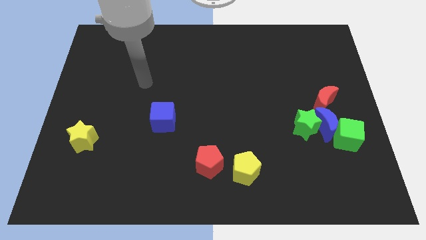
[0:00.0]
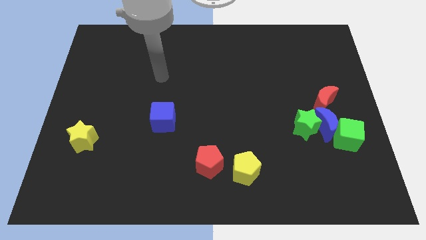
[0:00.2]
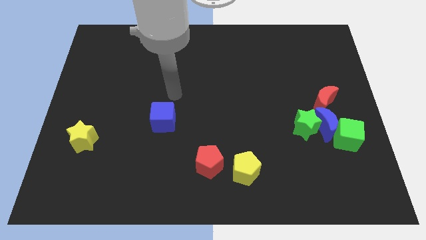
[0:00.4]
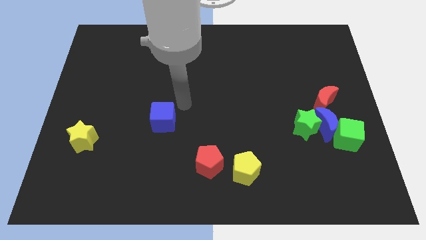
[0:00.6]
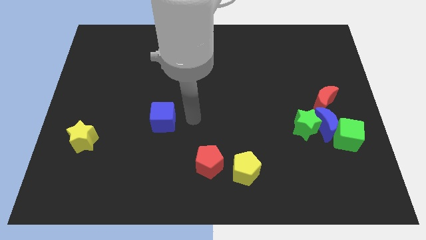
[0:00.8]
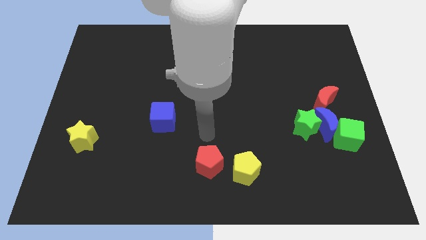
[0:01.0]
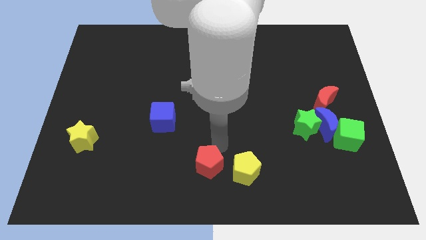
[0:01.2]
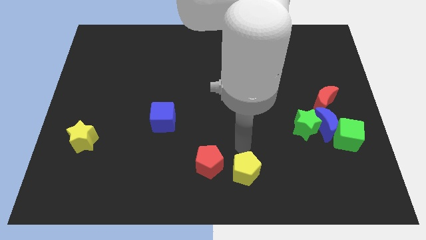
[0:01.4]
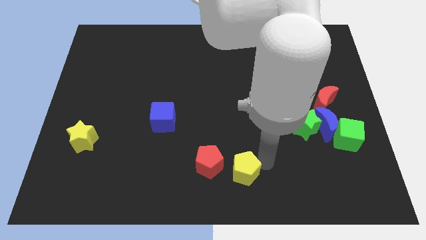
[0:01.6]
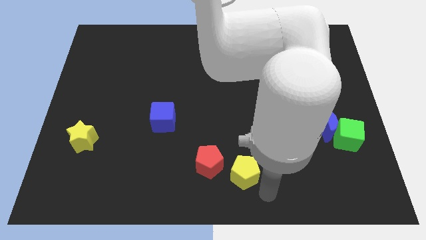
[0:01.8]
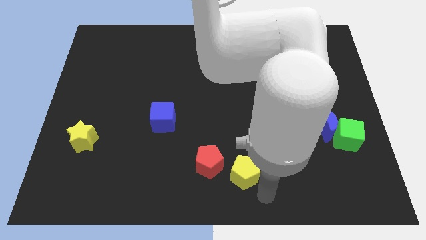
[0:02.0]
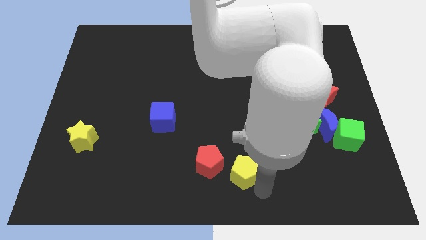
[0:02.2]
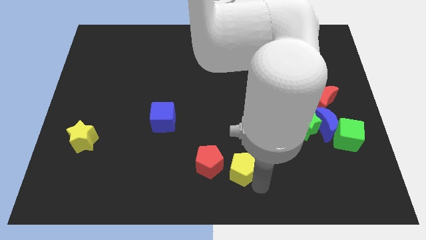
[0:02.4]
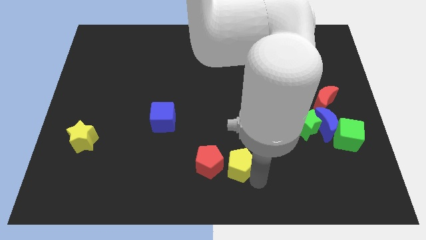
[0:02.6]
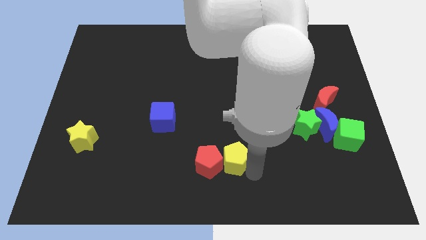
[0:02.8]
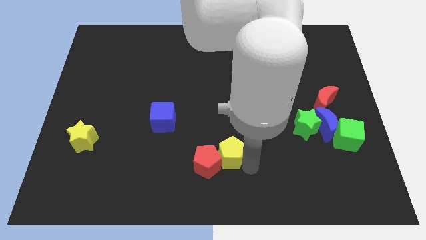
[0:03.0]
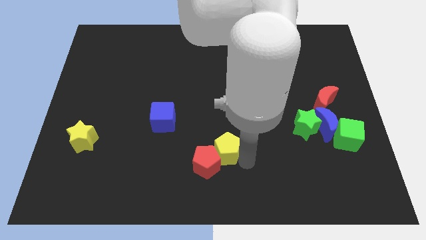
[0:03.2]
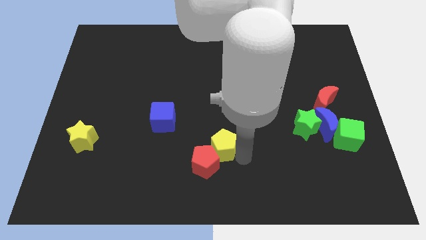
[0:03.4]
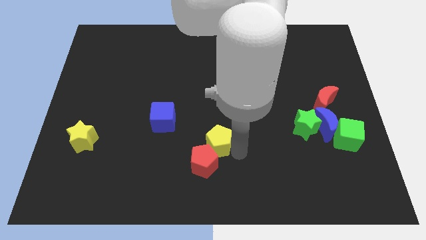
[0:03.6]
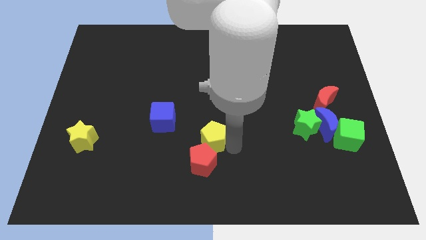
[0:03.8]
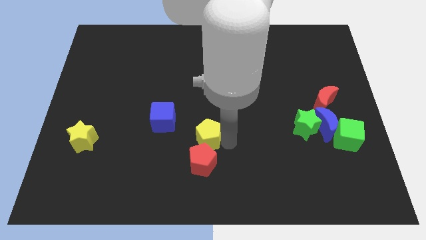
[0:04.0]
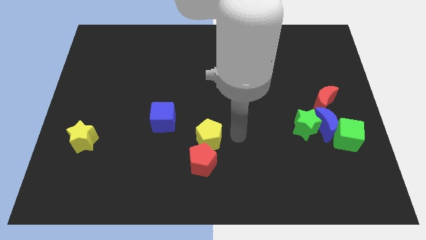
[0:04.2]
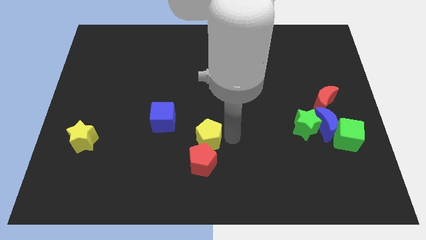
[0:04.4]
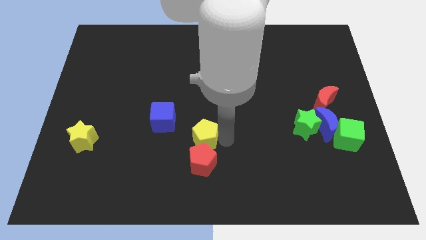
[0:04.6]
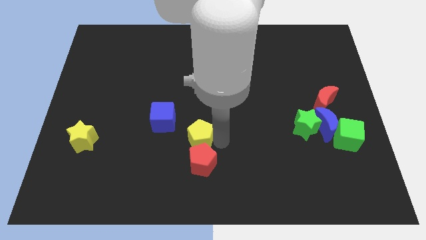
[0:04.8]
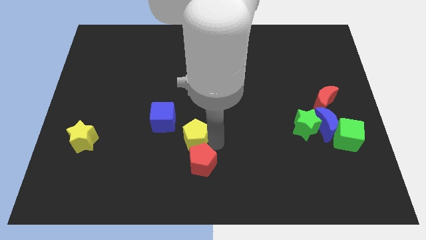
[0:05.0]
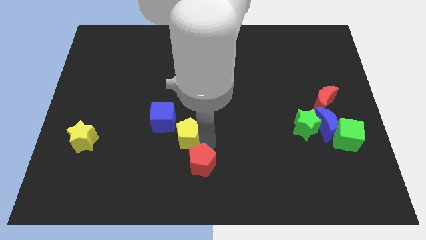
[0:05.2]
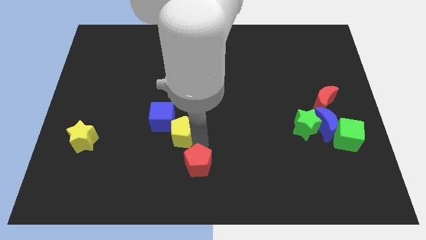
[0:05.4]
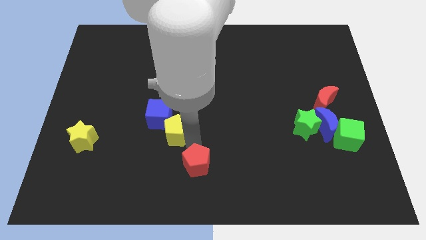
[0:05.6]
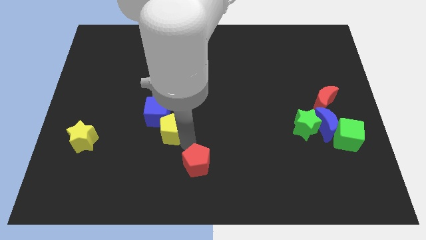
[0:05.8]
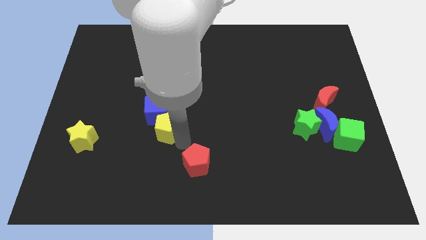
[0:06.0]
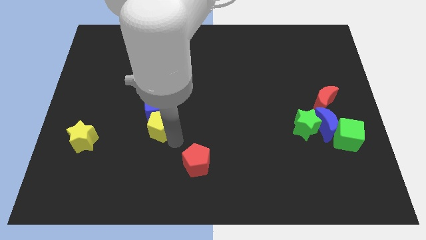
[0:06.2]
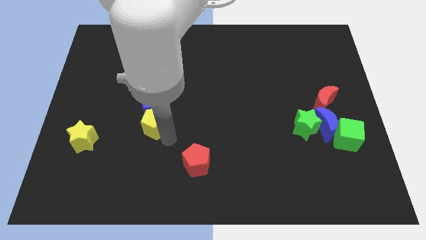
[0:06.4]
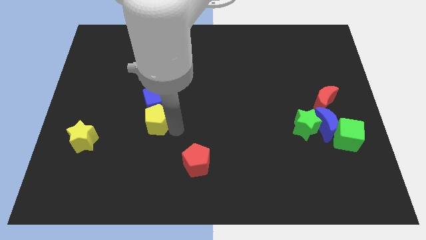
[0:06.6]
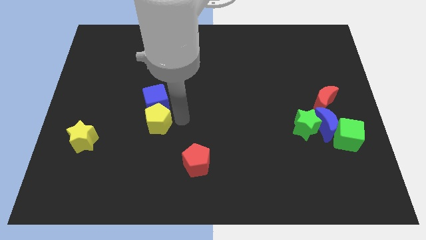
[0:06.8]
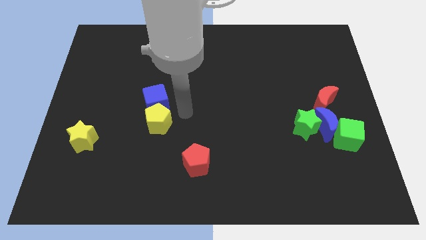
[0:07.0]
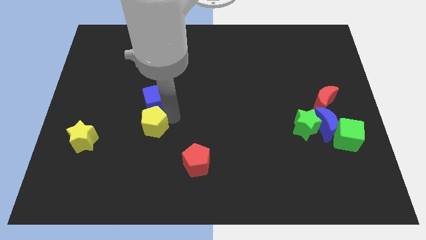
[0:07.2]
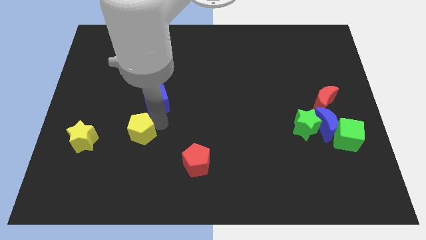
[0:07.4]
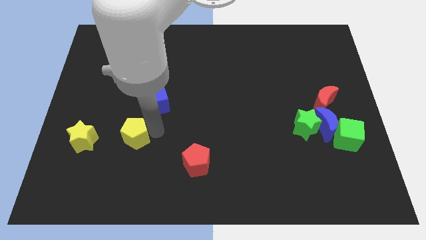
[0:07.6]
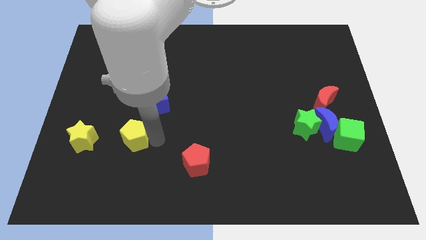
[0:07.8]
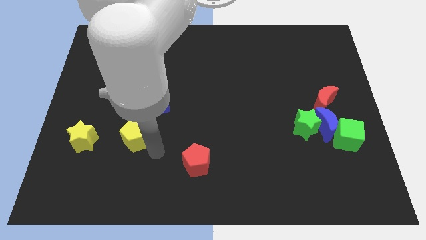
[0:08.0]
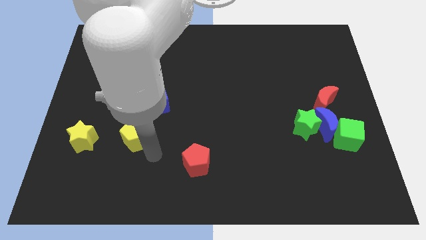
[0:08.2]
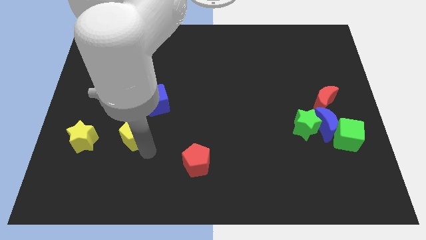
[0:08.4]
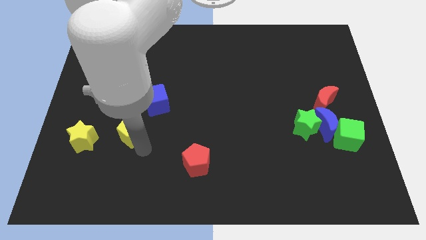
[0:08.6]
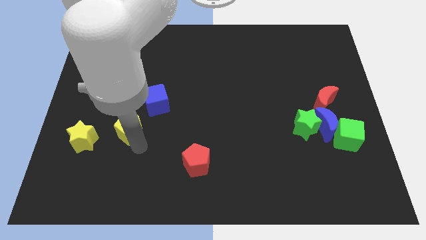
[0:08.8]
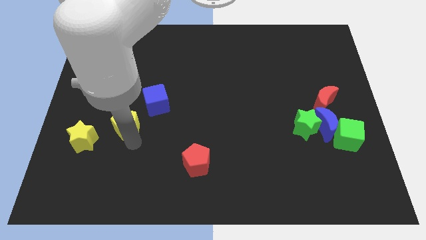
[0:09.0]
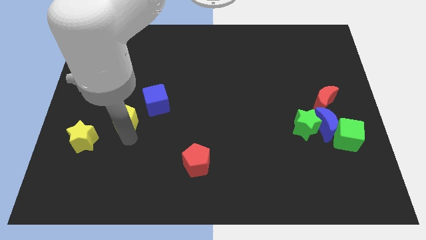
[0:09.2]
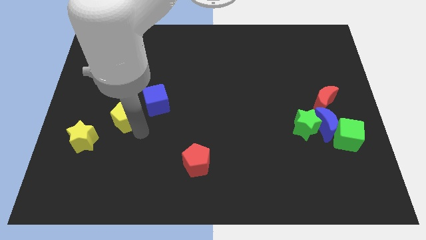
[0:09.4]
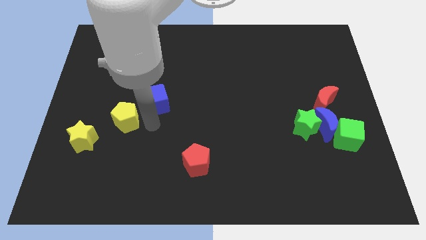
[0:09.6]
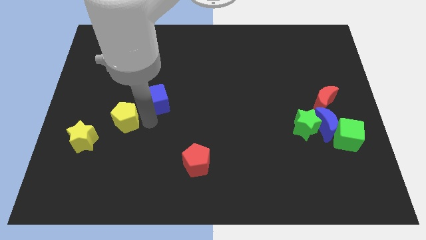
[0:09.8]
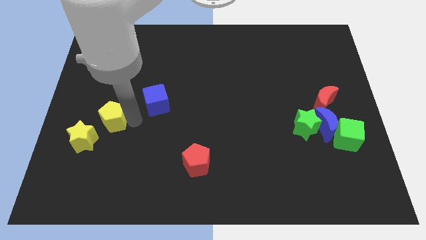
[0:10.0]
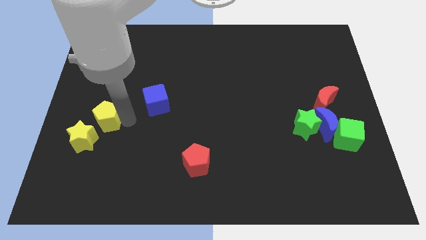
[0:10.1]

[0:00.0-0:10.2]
slide the yellow pentagon to the top of the yellow star

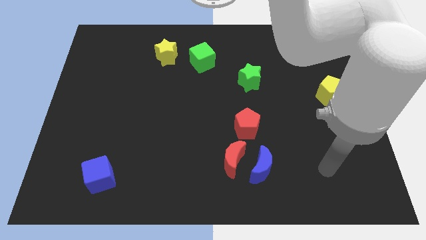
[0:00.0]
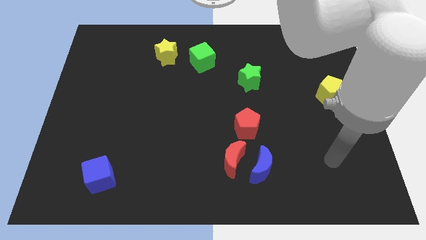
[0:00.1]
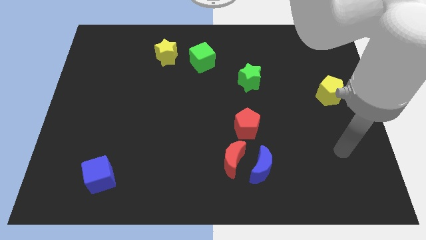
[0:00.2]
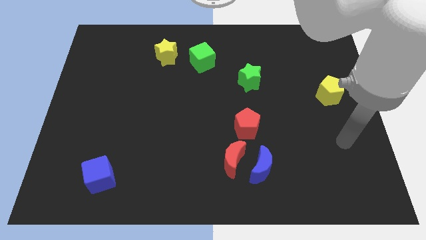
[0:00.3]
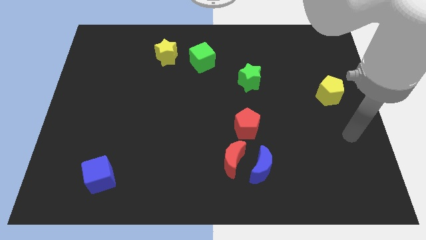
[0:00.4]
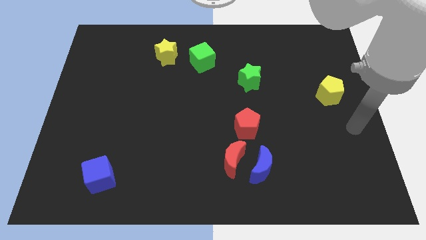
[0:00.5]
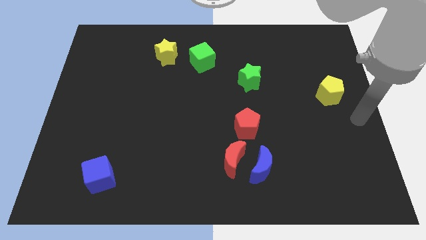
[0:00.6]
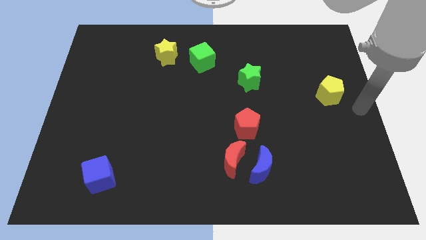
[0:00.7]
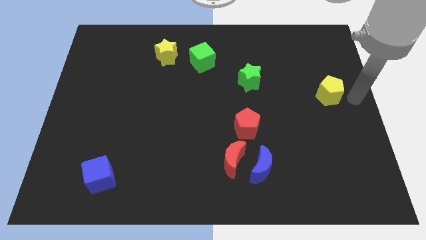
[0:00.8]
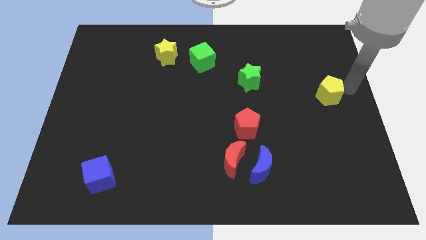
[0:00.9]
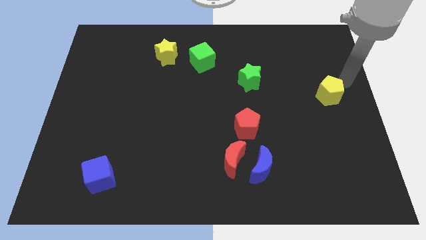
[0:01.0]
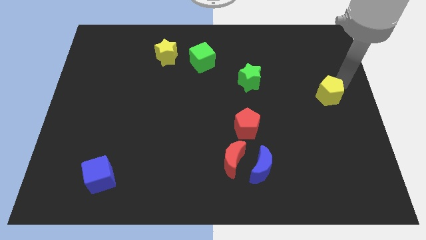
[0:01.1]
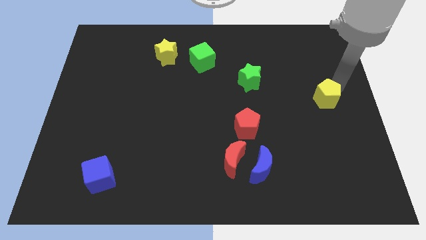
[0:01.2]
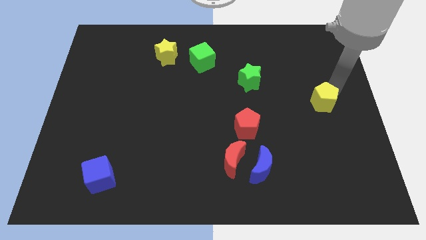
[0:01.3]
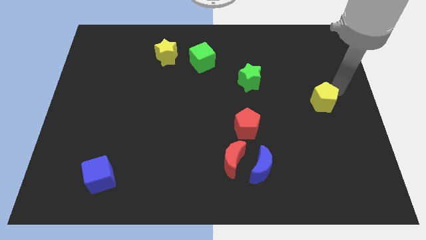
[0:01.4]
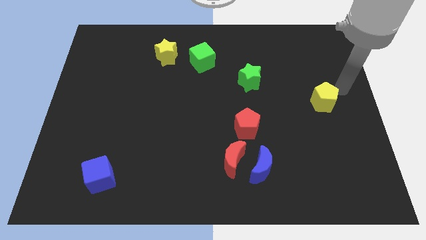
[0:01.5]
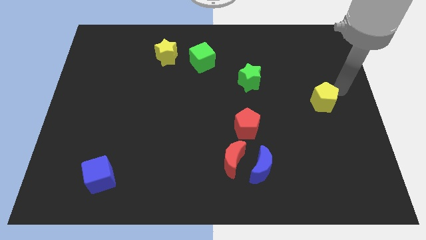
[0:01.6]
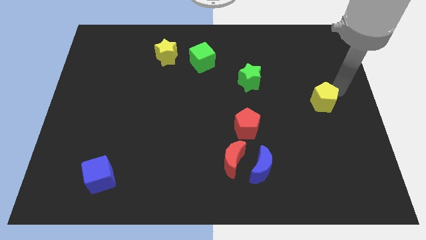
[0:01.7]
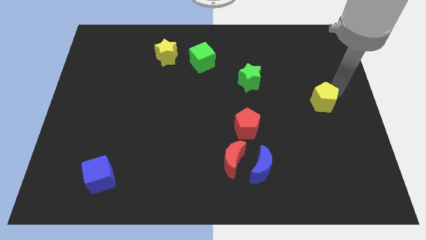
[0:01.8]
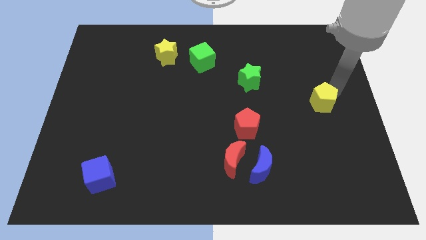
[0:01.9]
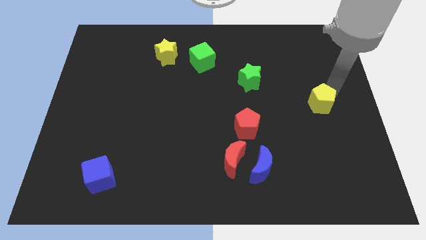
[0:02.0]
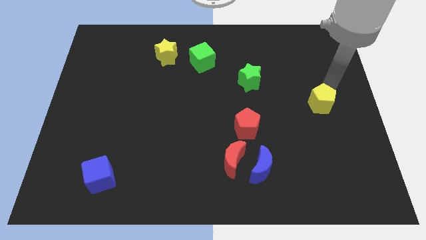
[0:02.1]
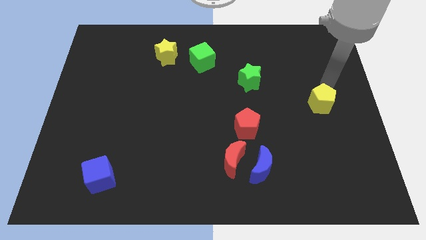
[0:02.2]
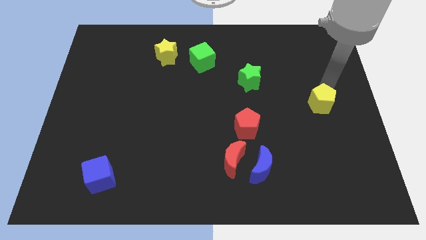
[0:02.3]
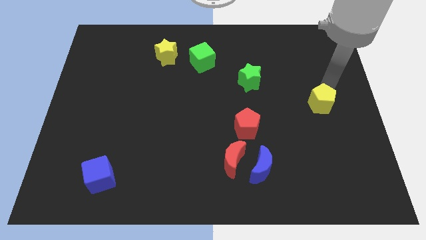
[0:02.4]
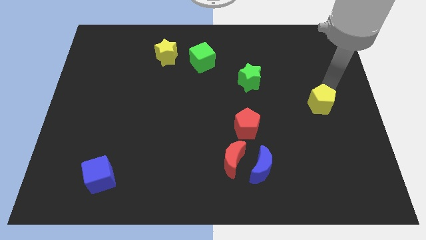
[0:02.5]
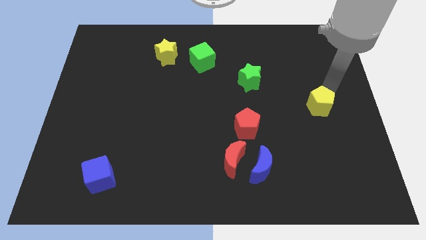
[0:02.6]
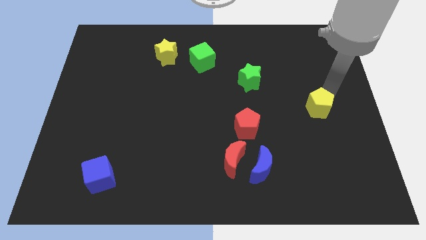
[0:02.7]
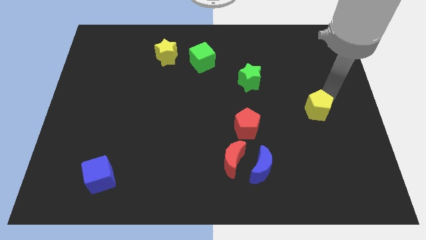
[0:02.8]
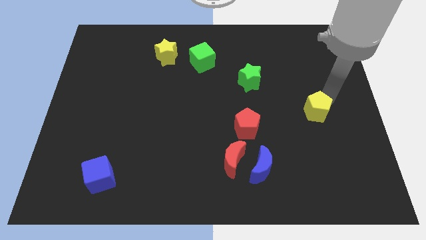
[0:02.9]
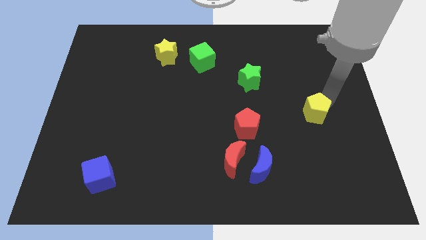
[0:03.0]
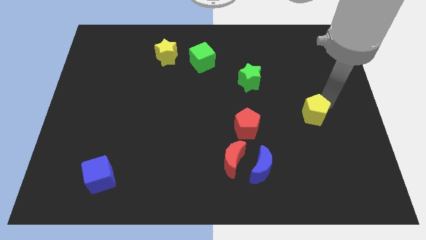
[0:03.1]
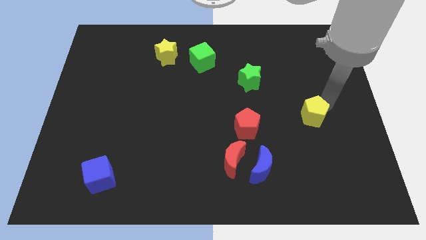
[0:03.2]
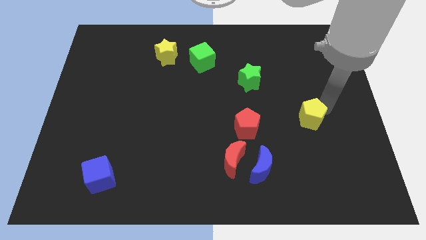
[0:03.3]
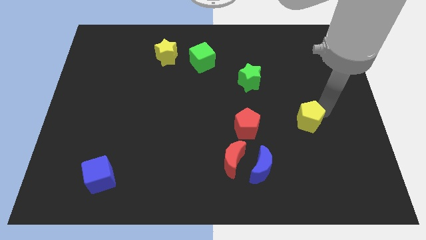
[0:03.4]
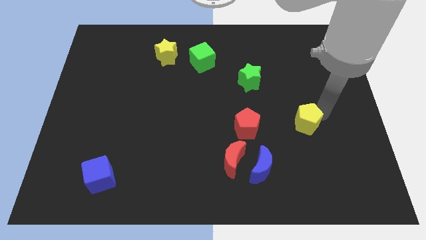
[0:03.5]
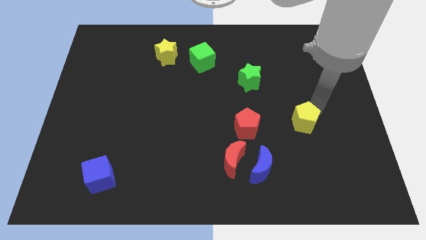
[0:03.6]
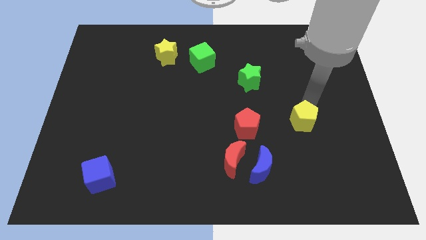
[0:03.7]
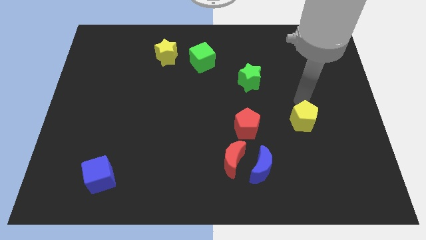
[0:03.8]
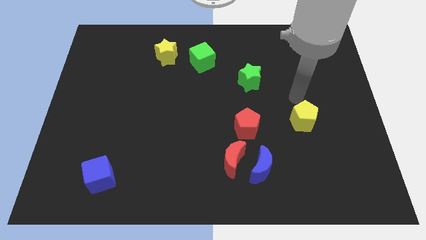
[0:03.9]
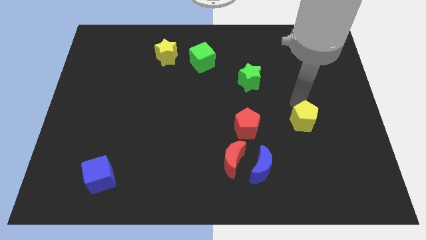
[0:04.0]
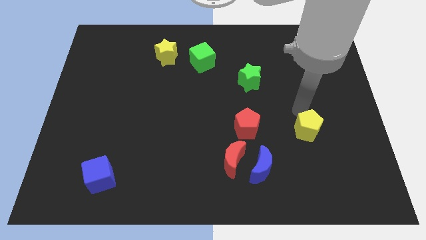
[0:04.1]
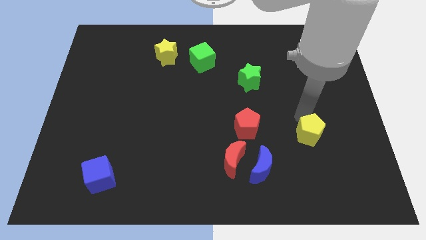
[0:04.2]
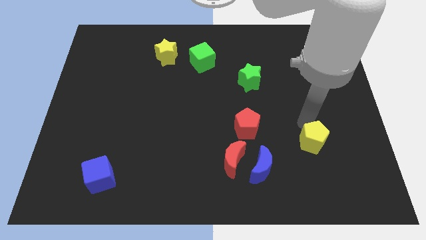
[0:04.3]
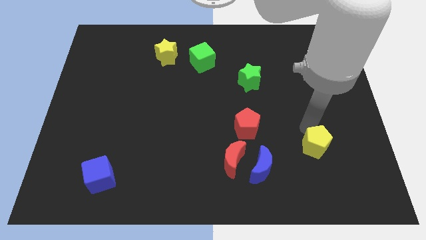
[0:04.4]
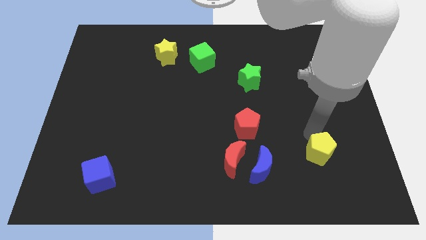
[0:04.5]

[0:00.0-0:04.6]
push the yellow pentagon to the right side of the blue moon
